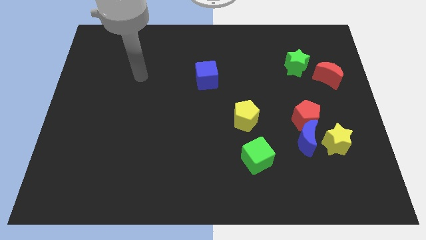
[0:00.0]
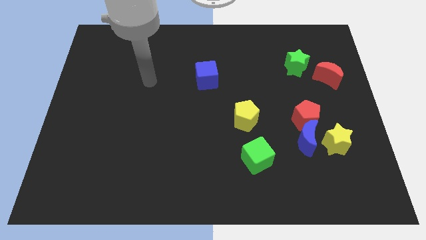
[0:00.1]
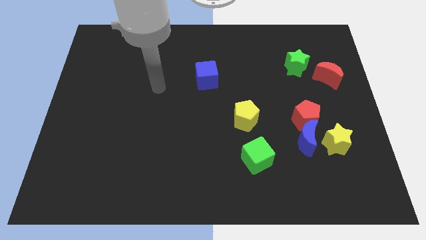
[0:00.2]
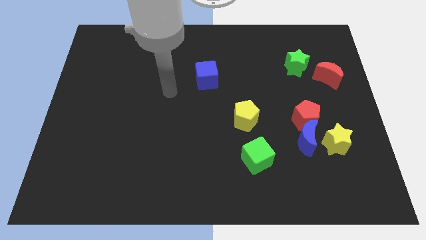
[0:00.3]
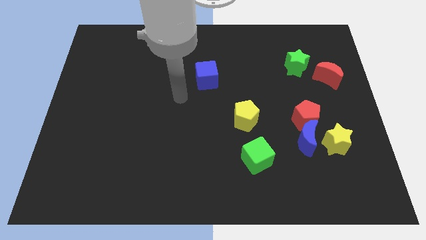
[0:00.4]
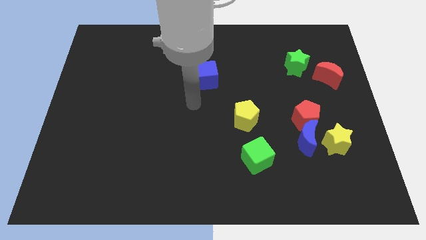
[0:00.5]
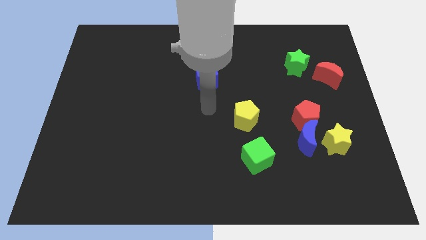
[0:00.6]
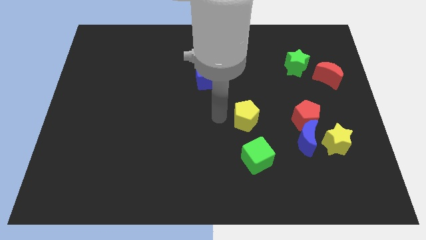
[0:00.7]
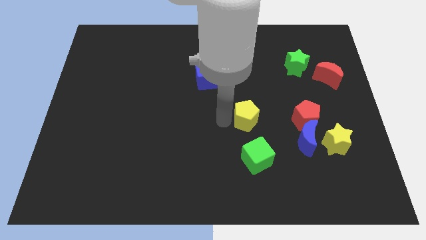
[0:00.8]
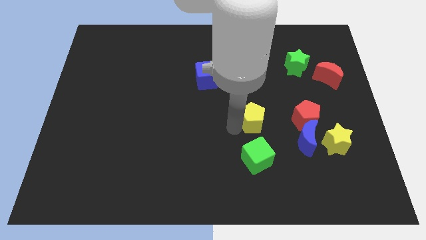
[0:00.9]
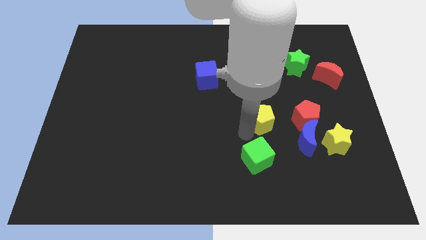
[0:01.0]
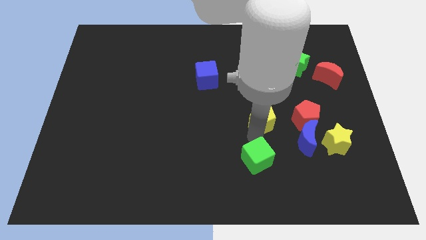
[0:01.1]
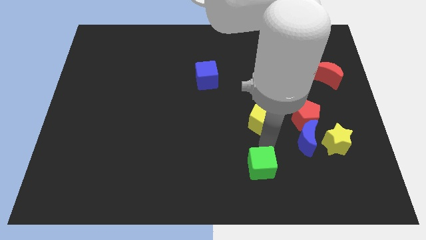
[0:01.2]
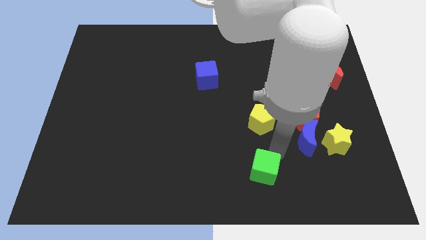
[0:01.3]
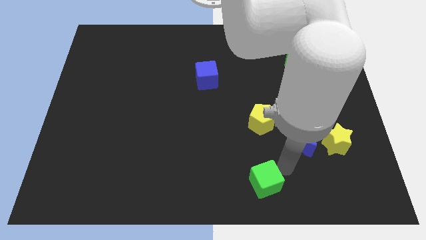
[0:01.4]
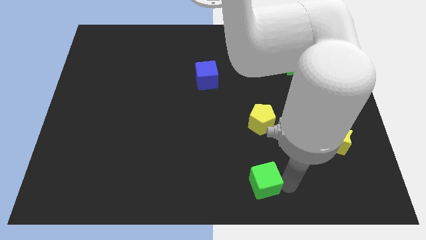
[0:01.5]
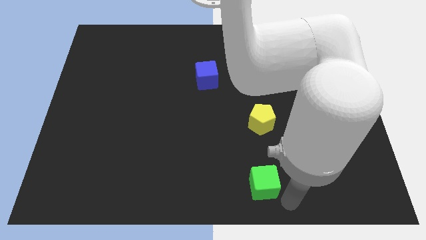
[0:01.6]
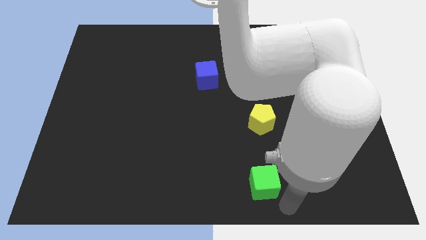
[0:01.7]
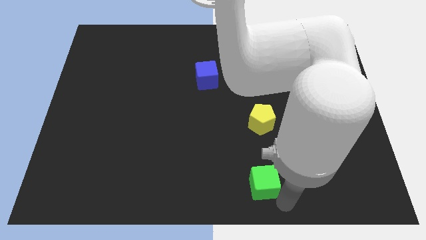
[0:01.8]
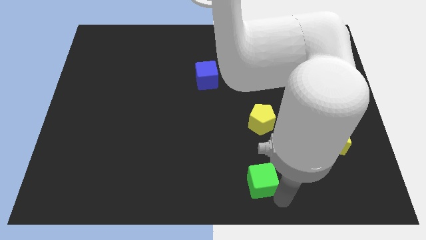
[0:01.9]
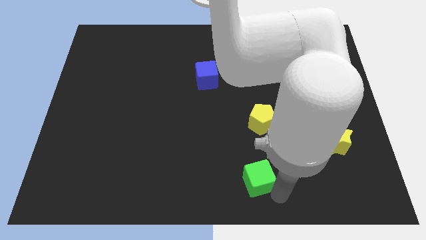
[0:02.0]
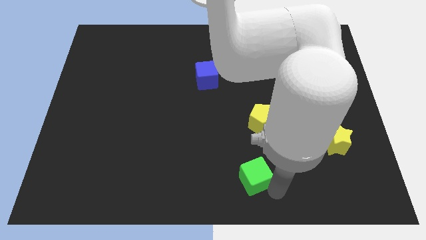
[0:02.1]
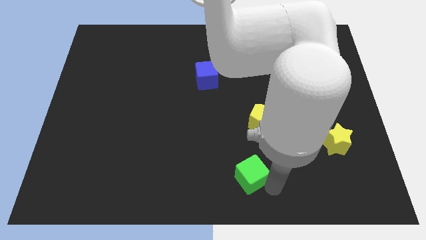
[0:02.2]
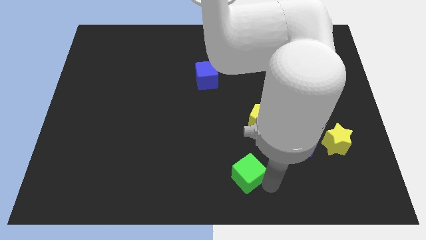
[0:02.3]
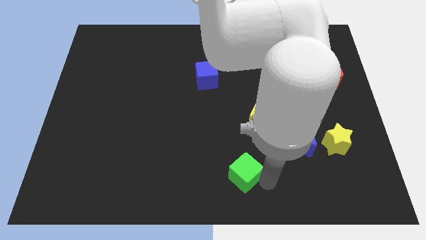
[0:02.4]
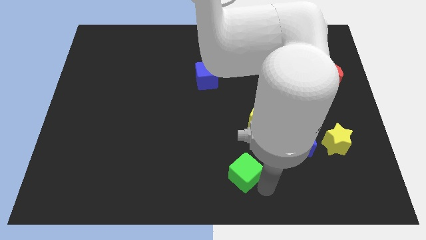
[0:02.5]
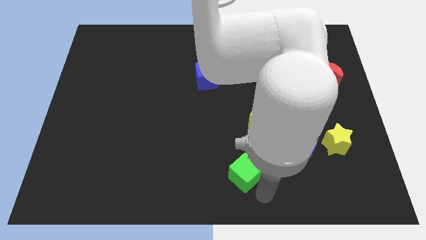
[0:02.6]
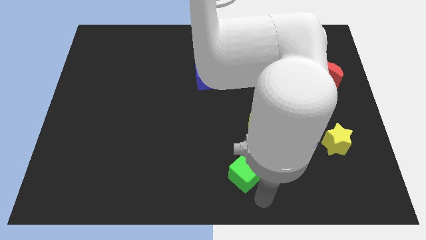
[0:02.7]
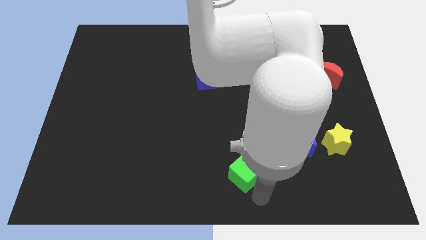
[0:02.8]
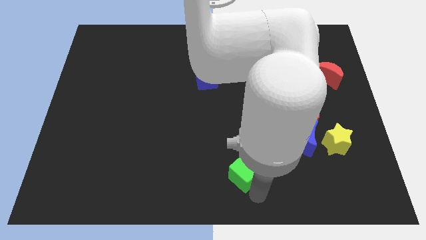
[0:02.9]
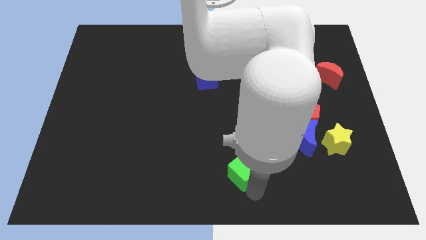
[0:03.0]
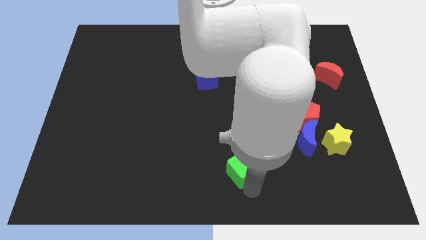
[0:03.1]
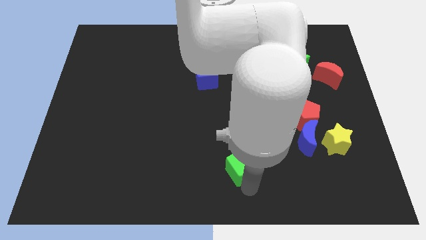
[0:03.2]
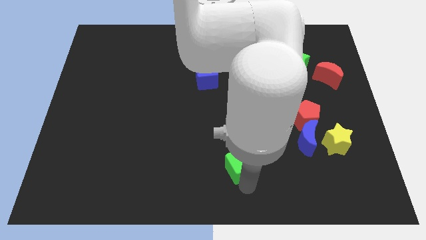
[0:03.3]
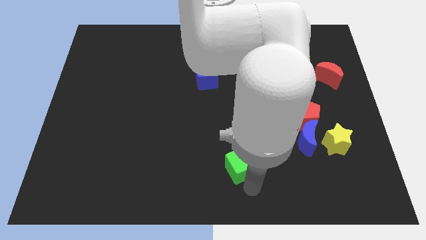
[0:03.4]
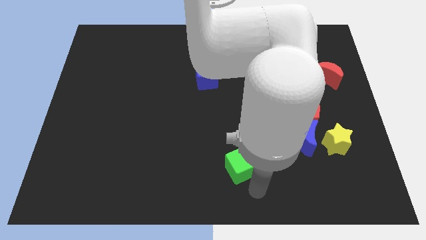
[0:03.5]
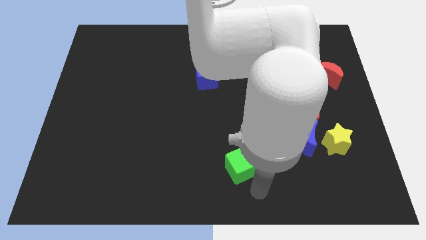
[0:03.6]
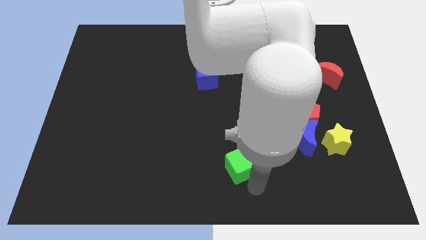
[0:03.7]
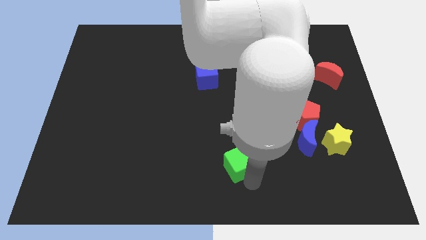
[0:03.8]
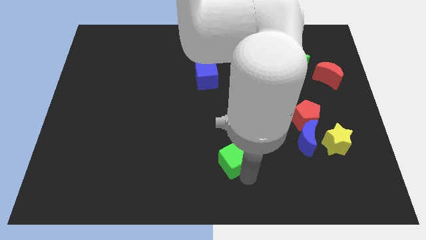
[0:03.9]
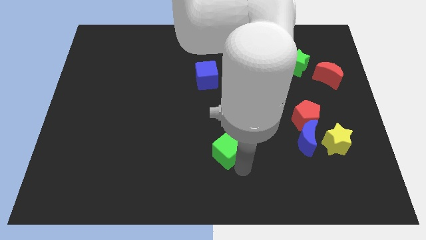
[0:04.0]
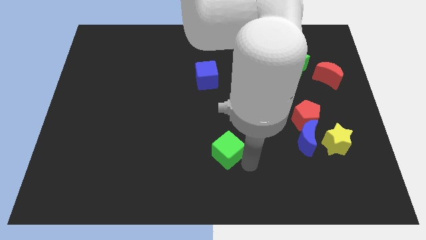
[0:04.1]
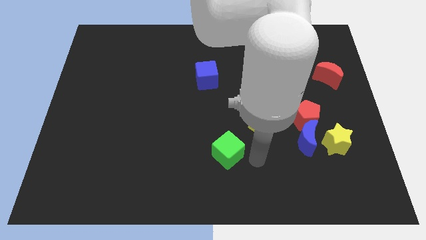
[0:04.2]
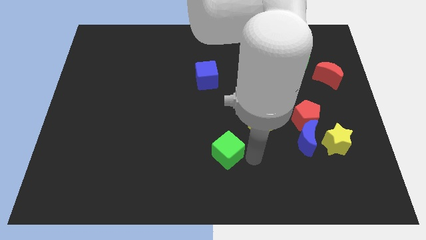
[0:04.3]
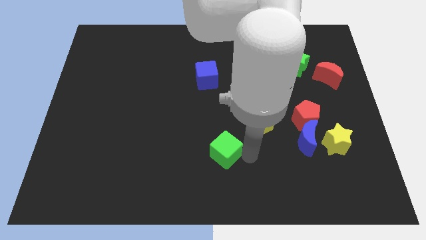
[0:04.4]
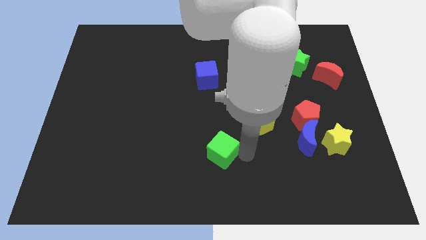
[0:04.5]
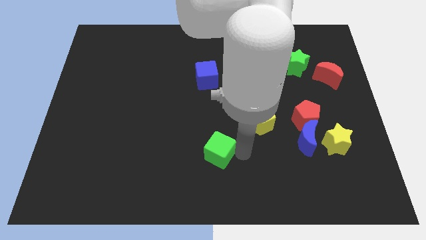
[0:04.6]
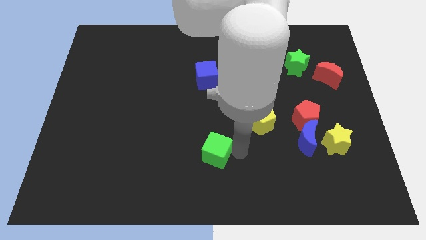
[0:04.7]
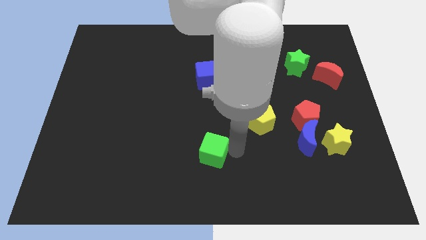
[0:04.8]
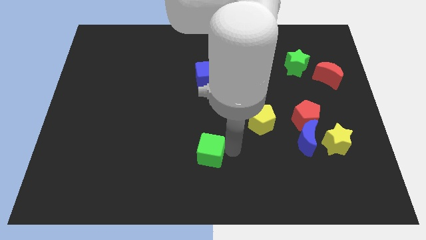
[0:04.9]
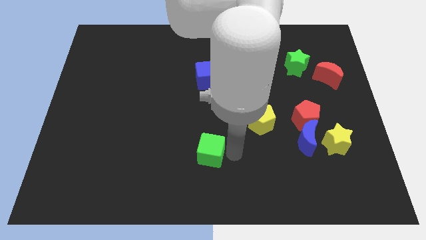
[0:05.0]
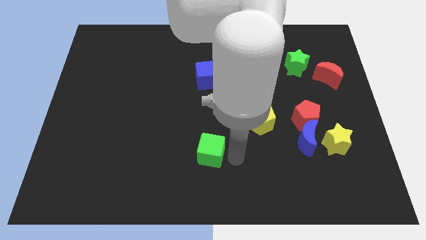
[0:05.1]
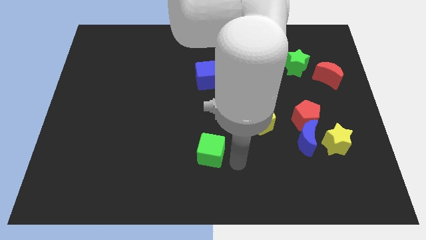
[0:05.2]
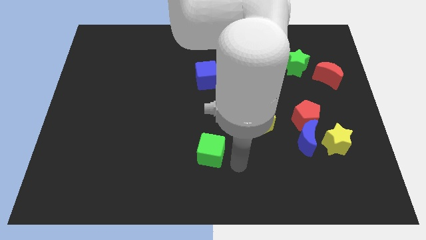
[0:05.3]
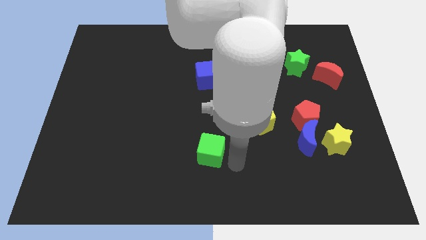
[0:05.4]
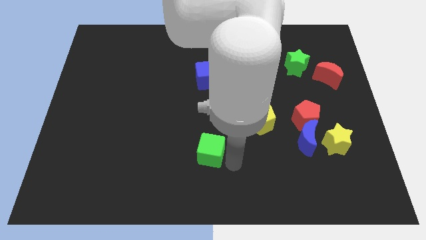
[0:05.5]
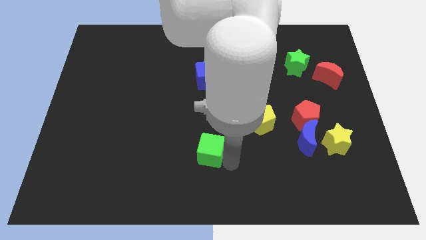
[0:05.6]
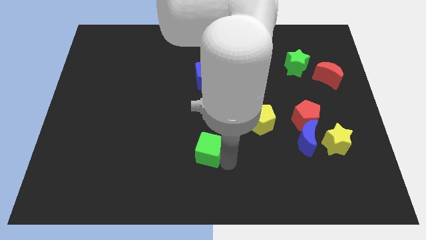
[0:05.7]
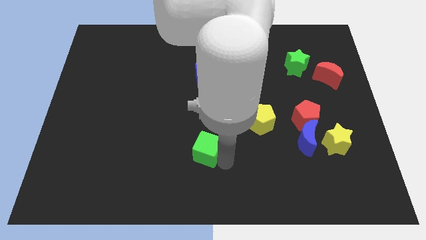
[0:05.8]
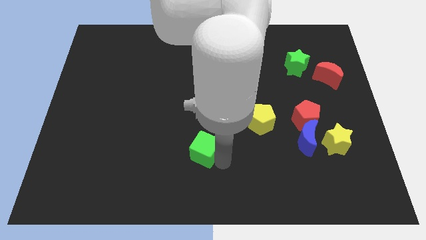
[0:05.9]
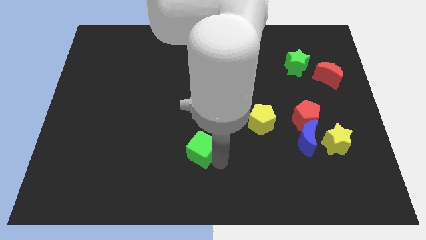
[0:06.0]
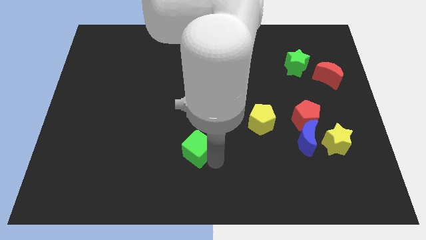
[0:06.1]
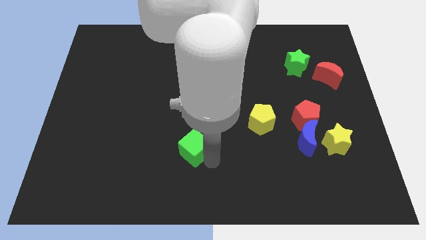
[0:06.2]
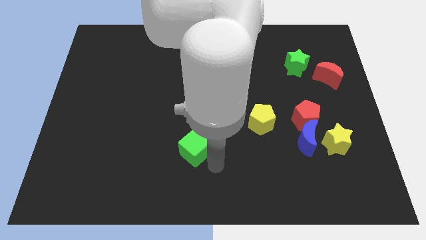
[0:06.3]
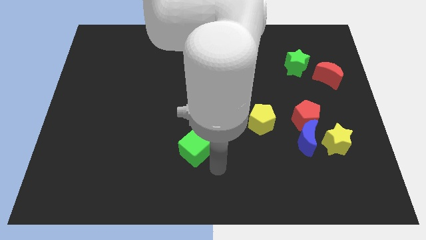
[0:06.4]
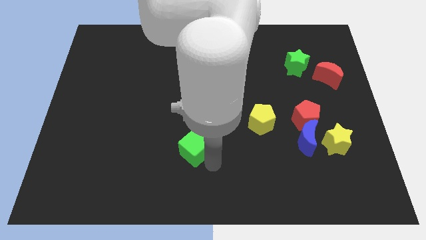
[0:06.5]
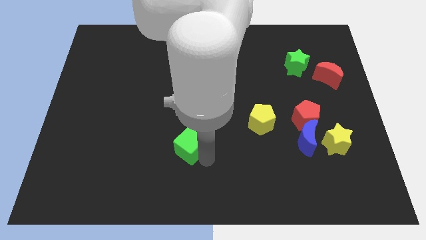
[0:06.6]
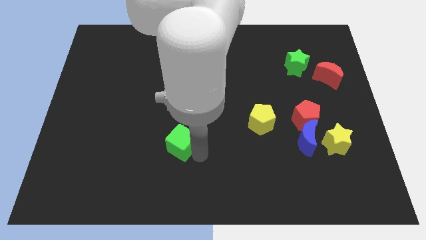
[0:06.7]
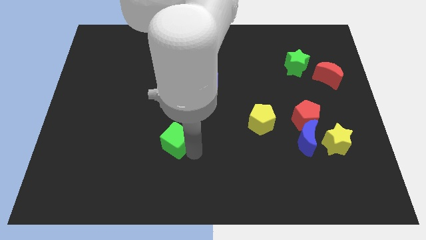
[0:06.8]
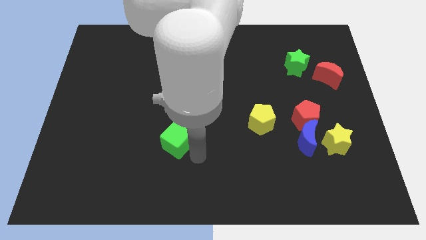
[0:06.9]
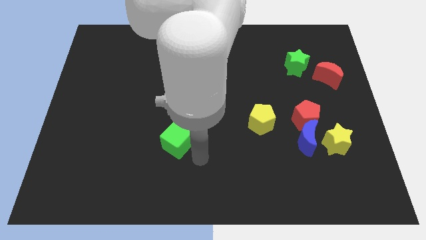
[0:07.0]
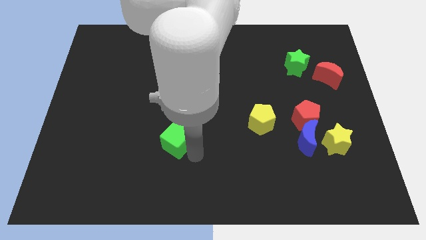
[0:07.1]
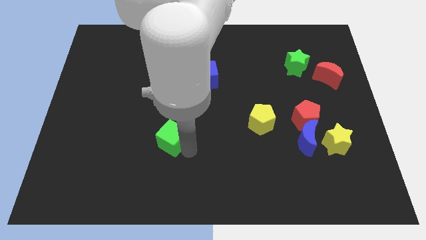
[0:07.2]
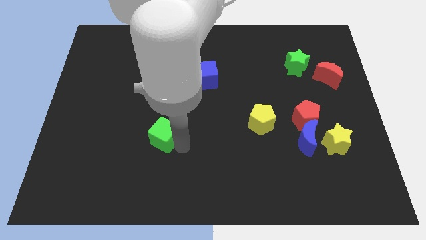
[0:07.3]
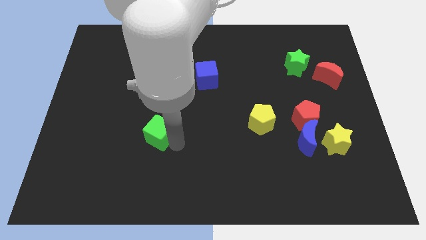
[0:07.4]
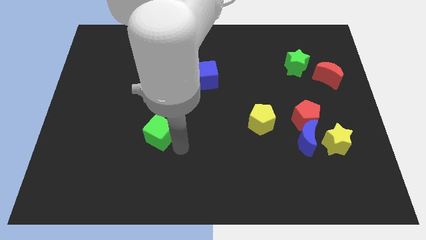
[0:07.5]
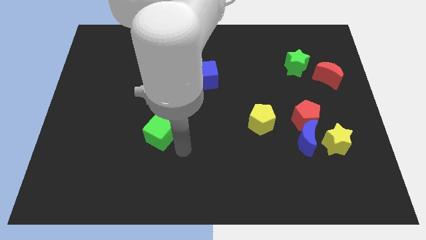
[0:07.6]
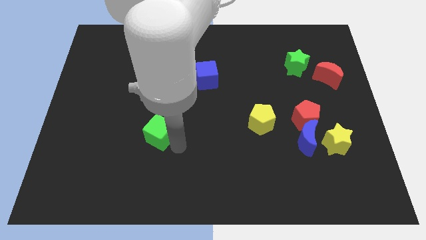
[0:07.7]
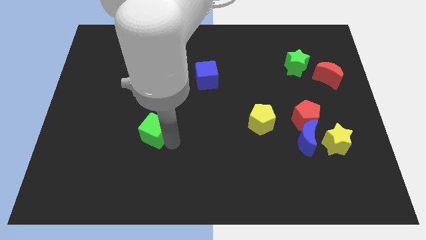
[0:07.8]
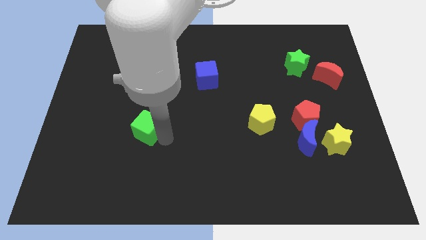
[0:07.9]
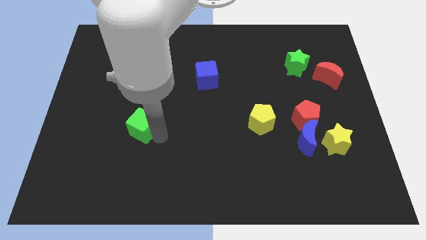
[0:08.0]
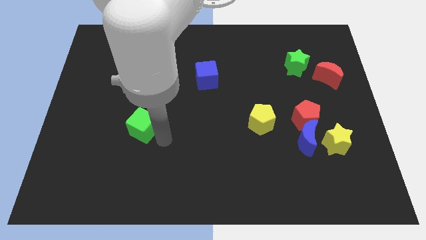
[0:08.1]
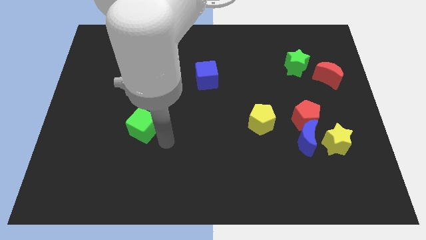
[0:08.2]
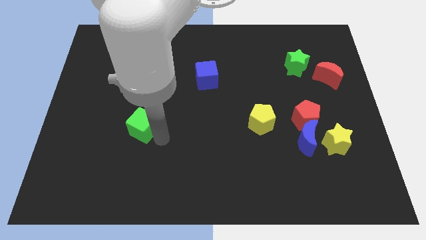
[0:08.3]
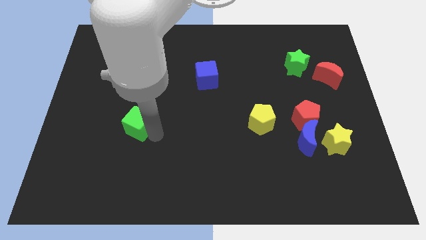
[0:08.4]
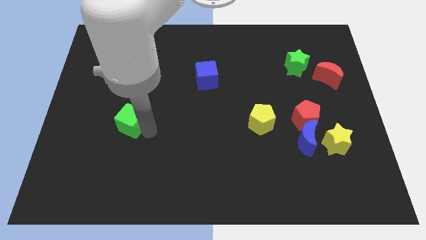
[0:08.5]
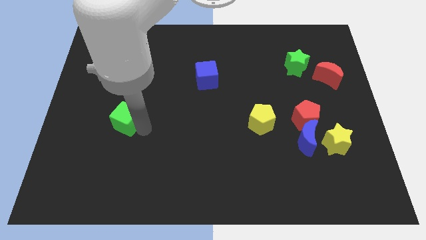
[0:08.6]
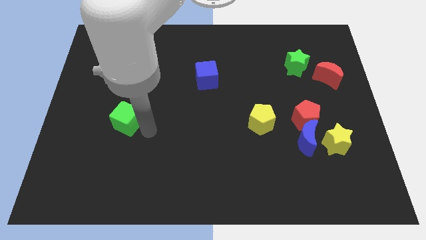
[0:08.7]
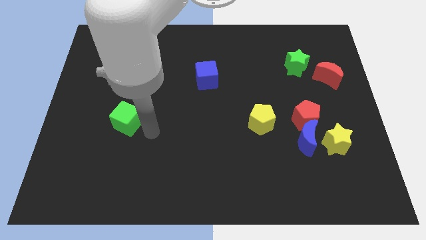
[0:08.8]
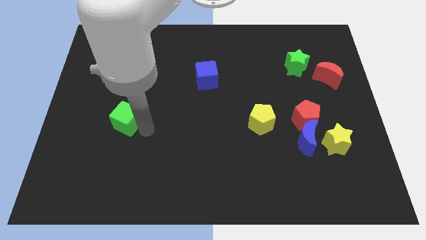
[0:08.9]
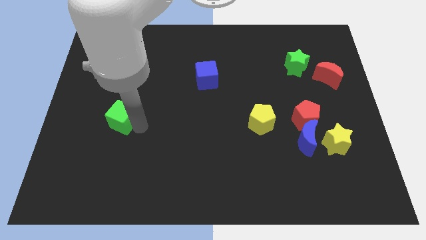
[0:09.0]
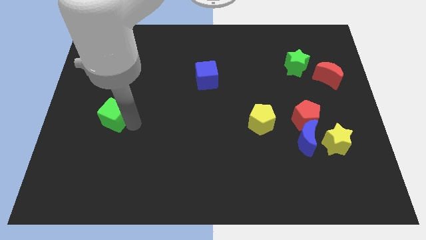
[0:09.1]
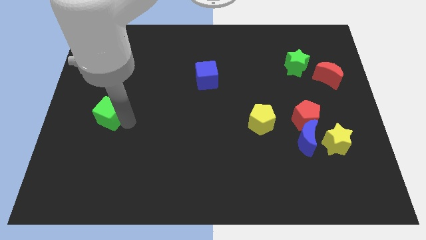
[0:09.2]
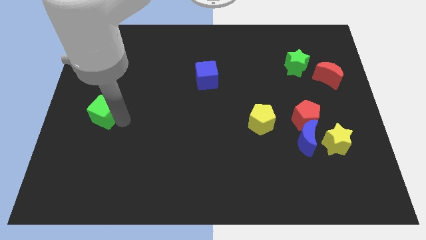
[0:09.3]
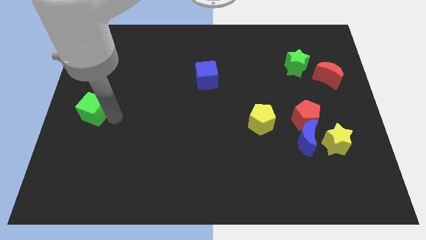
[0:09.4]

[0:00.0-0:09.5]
move the green cube to the left side of the board
